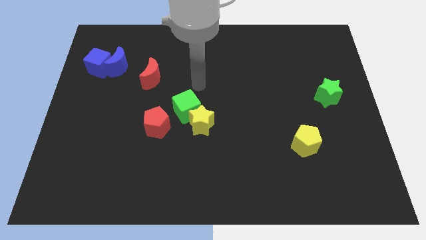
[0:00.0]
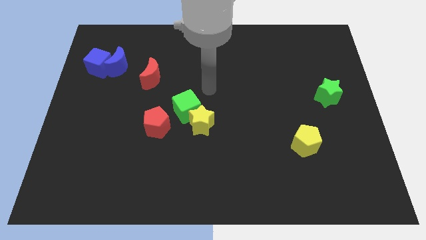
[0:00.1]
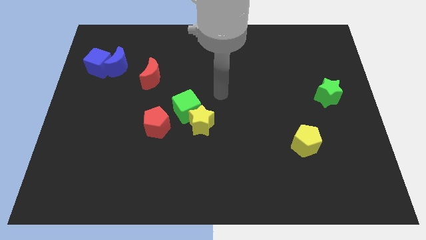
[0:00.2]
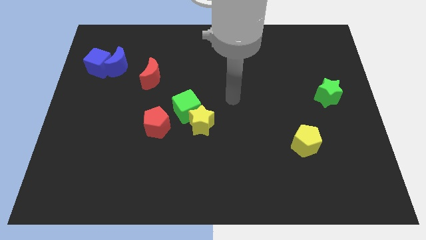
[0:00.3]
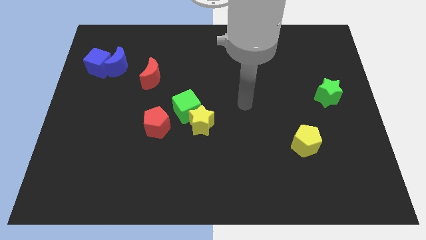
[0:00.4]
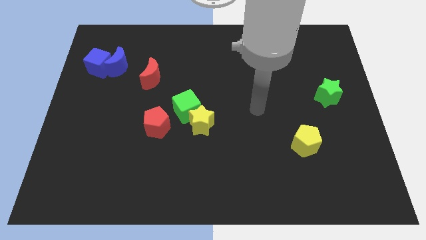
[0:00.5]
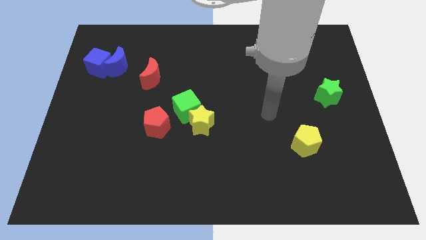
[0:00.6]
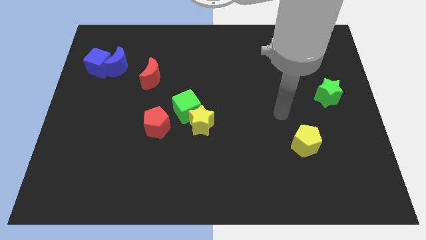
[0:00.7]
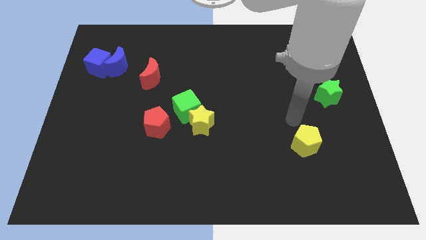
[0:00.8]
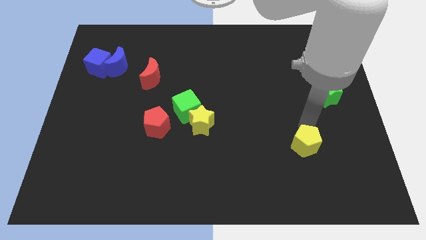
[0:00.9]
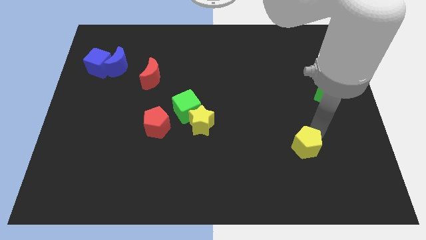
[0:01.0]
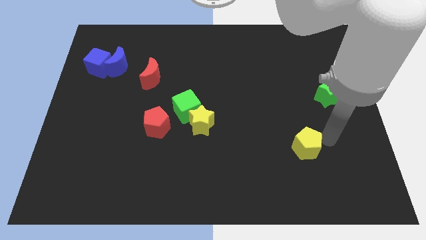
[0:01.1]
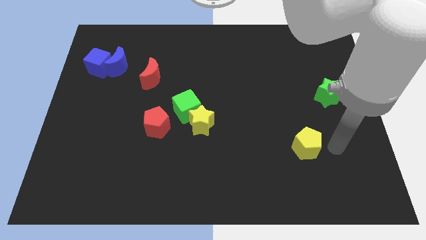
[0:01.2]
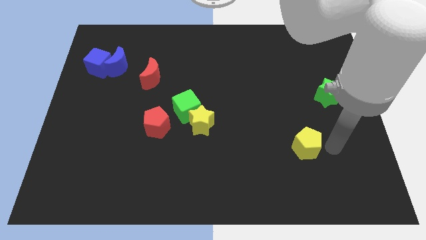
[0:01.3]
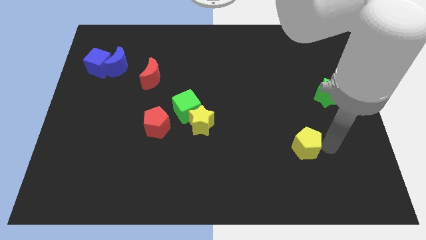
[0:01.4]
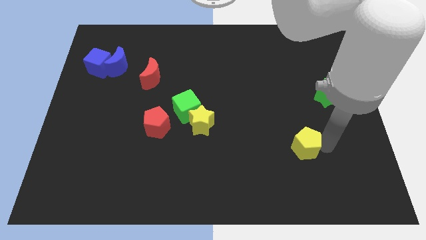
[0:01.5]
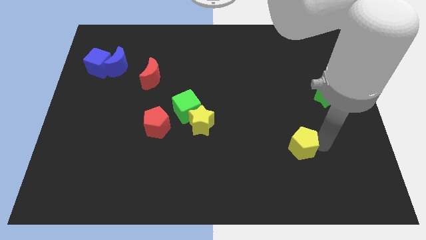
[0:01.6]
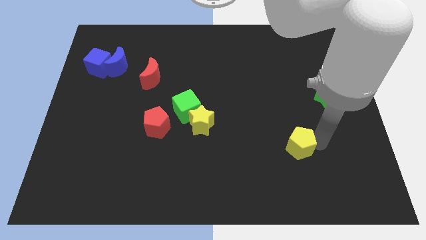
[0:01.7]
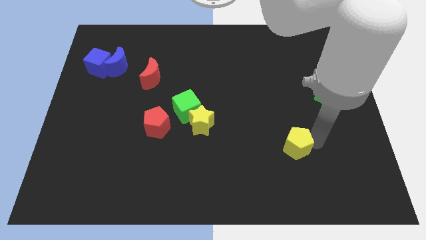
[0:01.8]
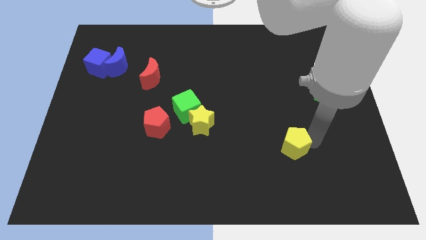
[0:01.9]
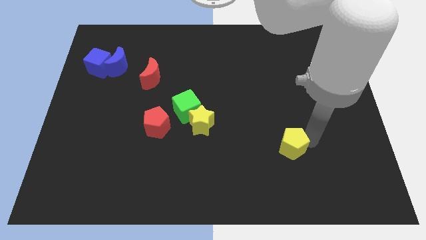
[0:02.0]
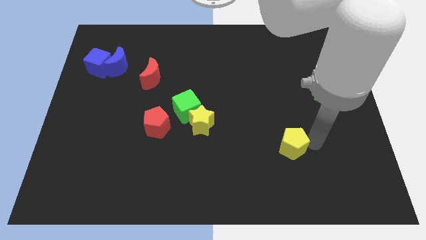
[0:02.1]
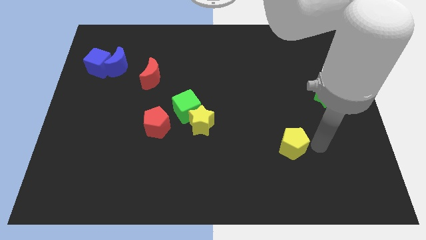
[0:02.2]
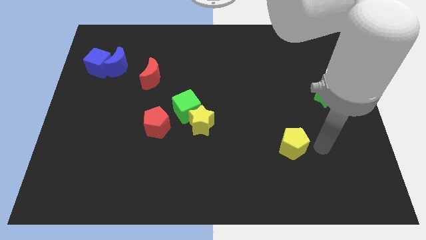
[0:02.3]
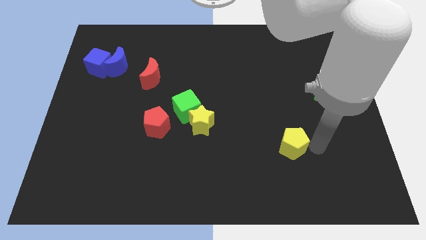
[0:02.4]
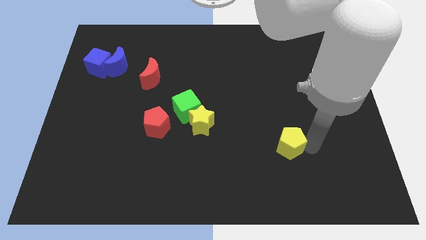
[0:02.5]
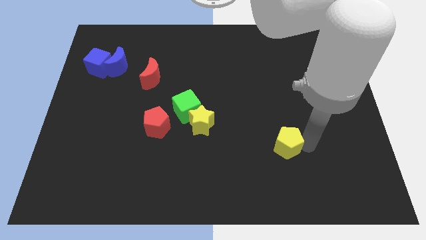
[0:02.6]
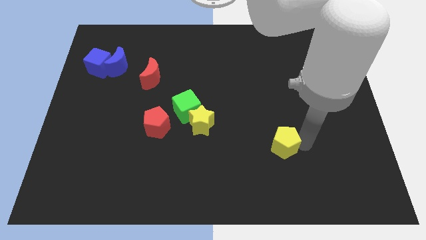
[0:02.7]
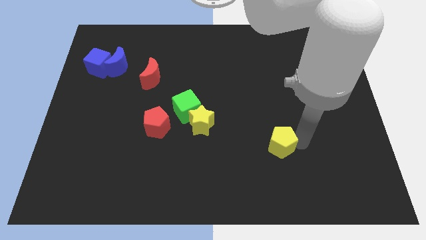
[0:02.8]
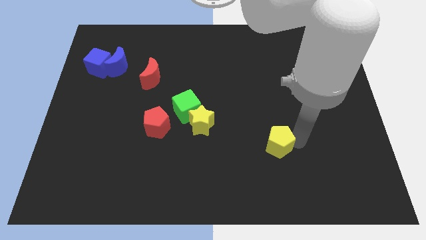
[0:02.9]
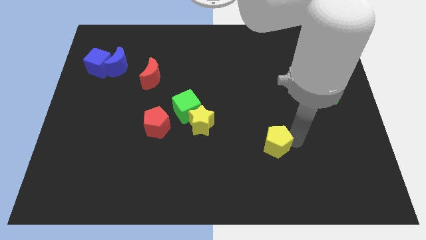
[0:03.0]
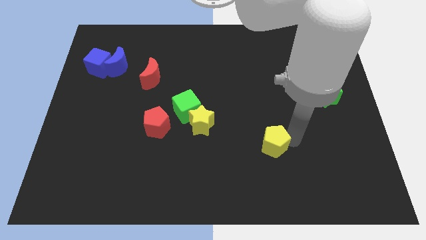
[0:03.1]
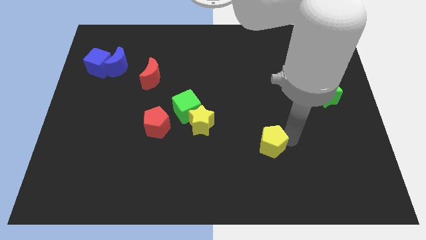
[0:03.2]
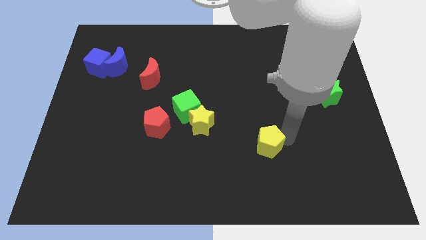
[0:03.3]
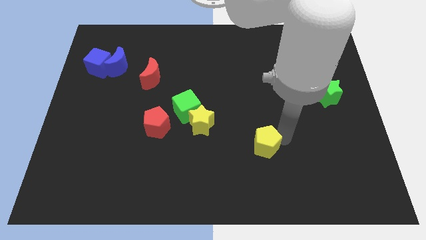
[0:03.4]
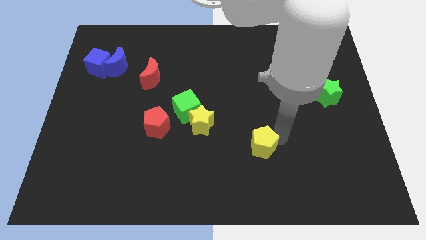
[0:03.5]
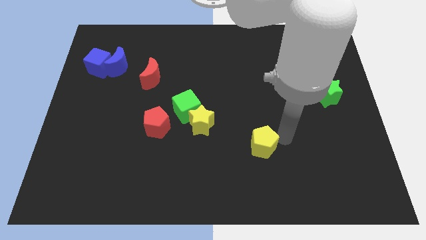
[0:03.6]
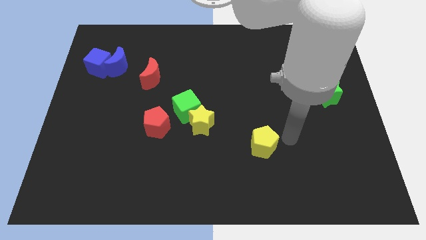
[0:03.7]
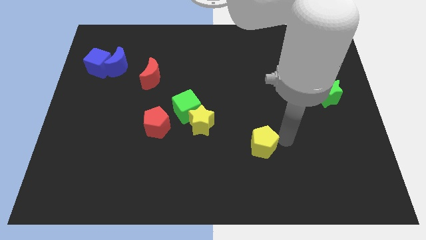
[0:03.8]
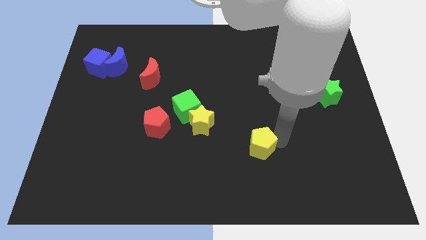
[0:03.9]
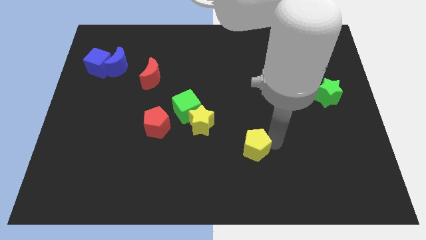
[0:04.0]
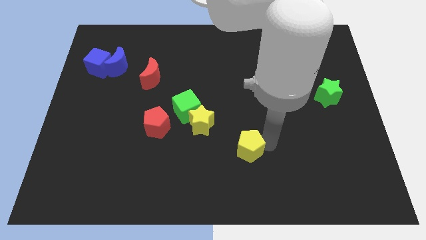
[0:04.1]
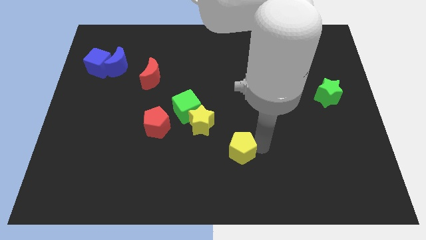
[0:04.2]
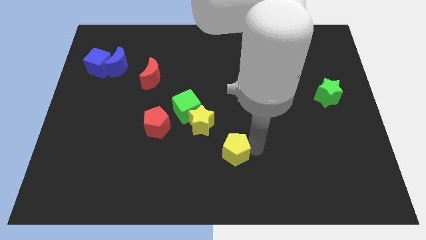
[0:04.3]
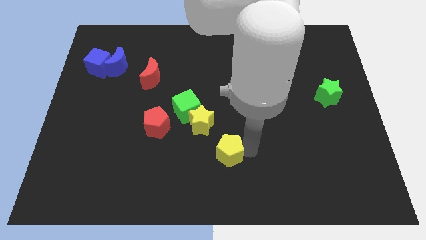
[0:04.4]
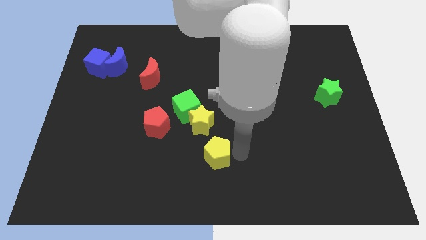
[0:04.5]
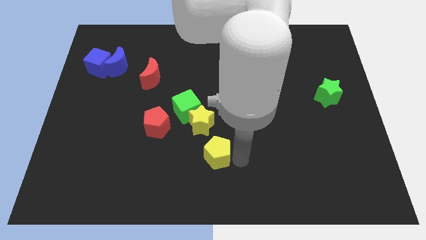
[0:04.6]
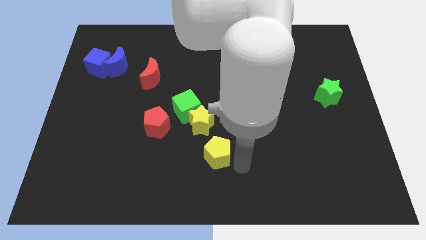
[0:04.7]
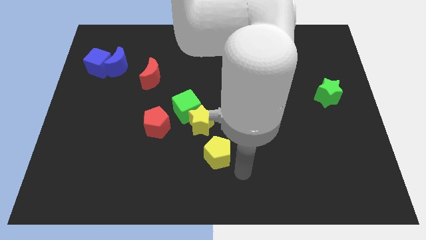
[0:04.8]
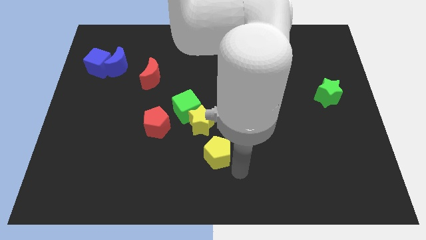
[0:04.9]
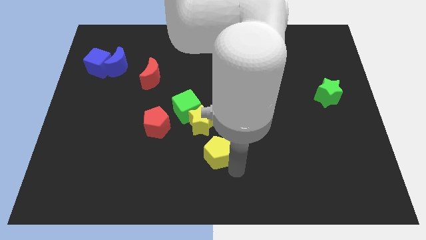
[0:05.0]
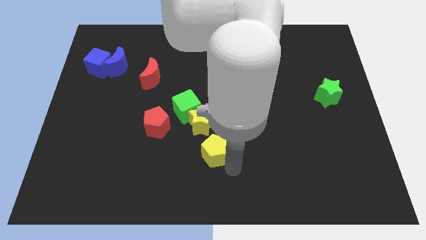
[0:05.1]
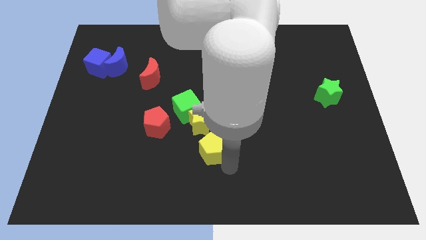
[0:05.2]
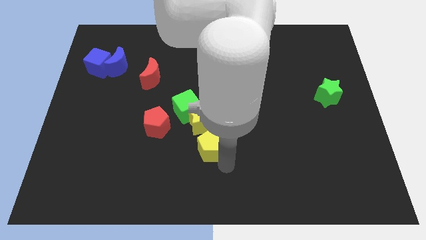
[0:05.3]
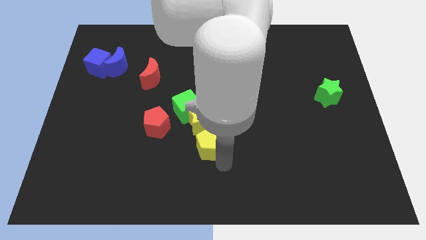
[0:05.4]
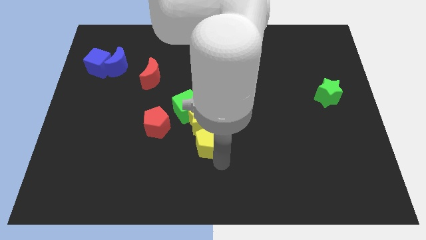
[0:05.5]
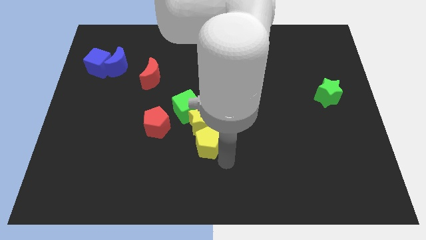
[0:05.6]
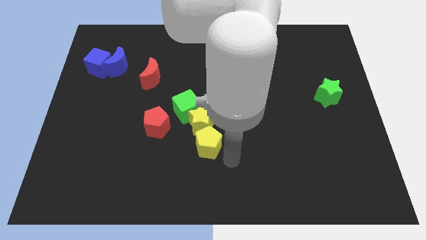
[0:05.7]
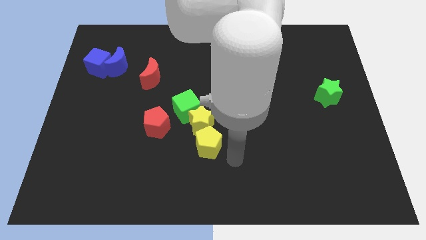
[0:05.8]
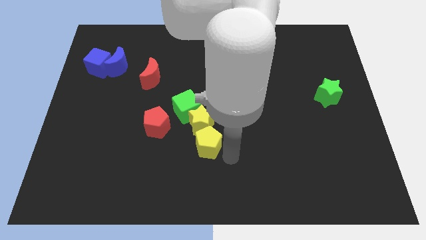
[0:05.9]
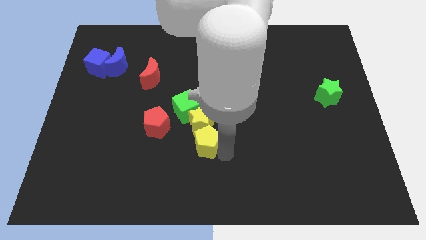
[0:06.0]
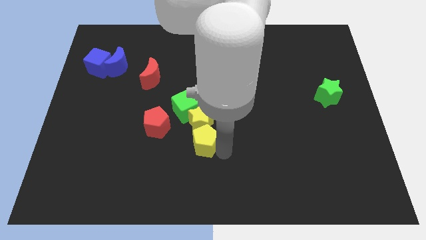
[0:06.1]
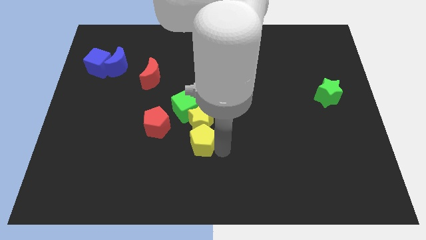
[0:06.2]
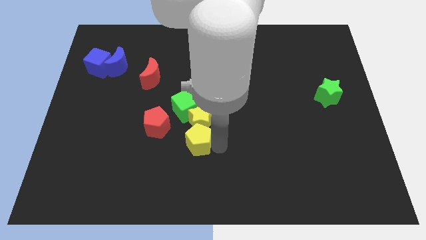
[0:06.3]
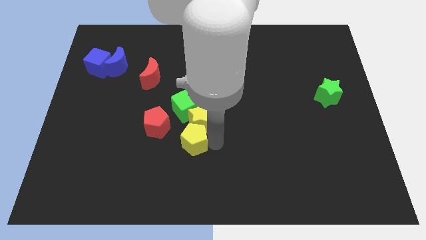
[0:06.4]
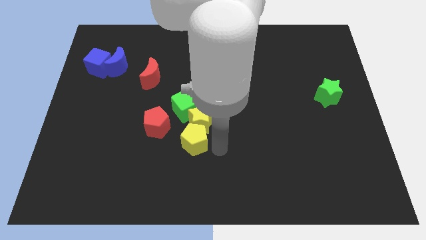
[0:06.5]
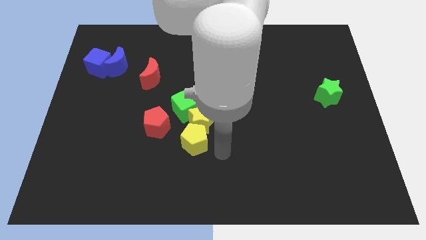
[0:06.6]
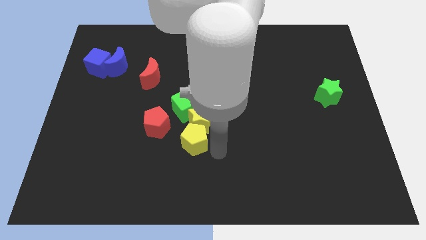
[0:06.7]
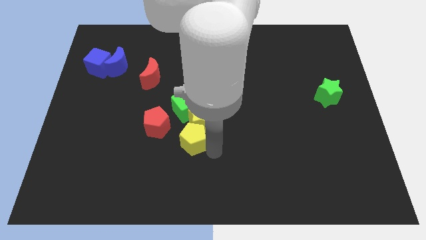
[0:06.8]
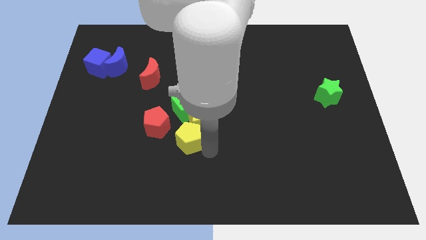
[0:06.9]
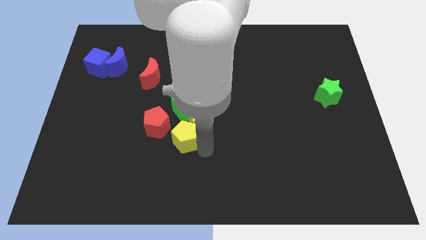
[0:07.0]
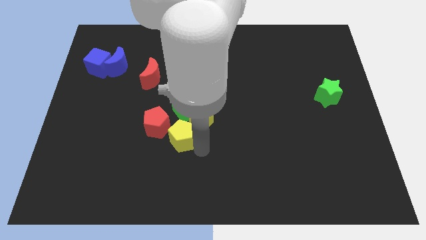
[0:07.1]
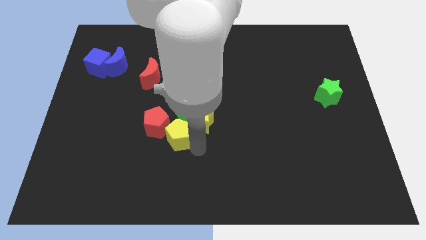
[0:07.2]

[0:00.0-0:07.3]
push the yellow pentagon next to the red pentagon
